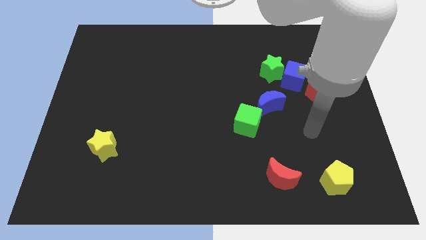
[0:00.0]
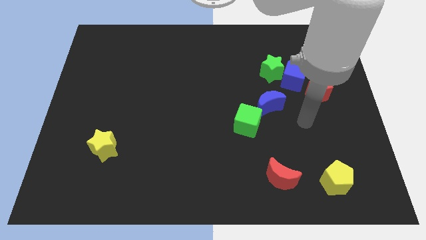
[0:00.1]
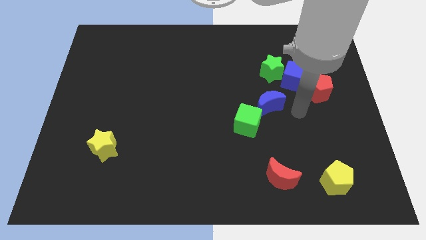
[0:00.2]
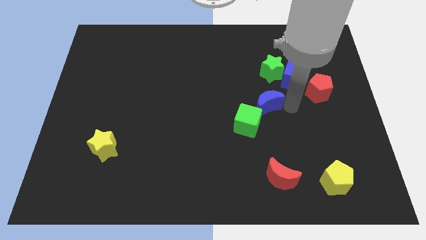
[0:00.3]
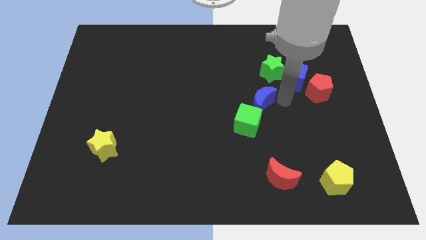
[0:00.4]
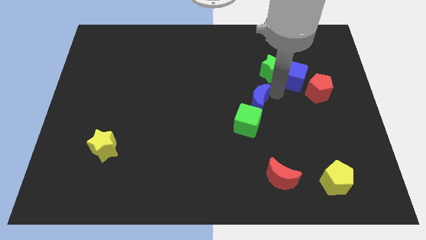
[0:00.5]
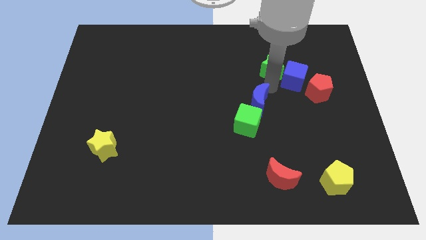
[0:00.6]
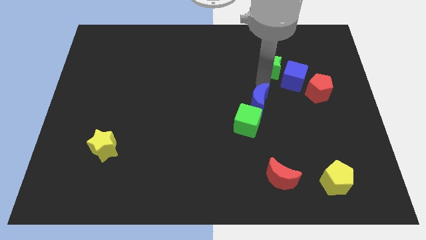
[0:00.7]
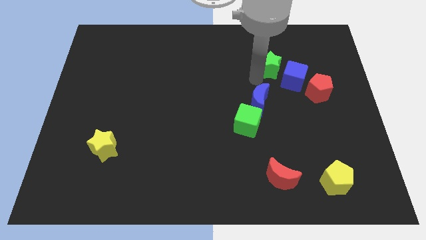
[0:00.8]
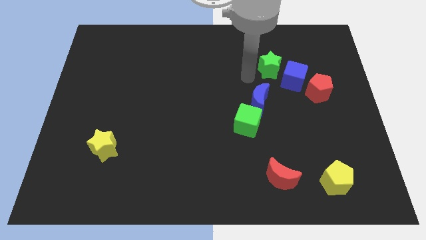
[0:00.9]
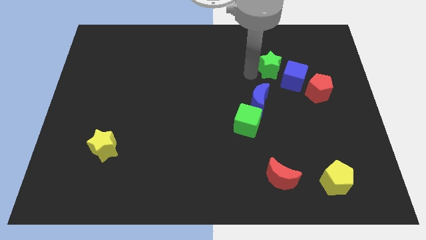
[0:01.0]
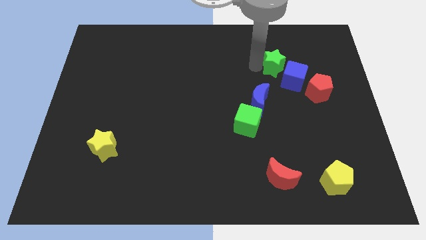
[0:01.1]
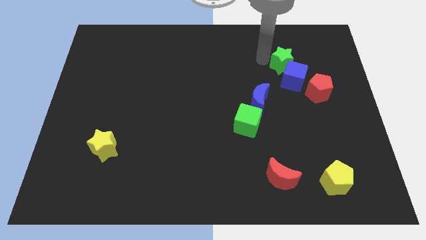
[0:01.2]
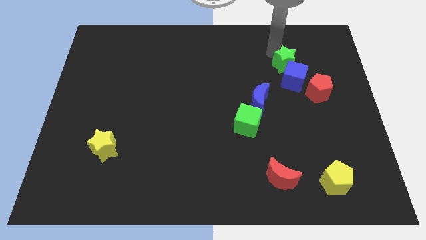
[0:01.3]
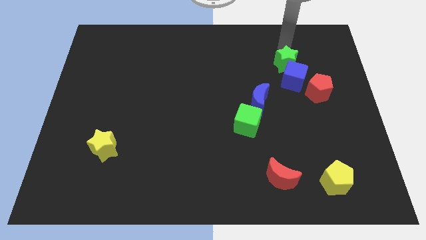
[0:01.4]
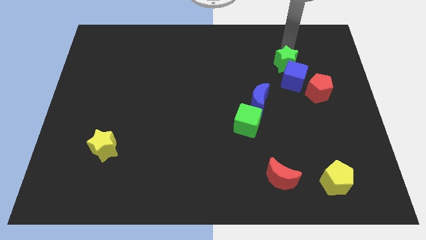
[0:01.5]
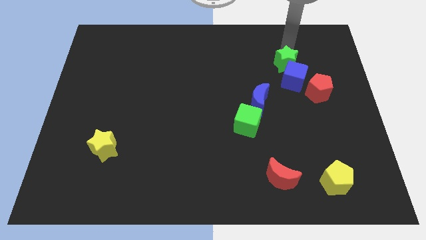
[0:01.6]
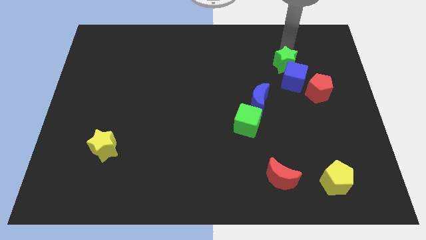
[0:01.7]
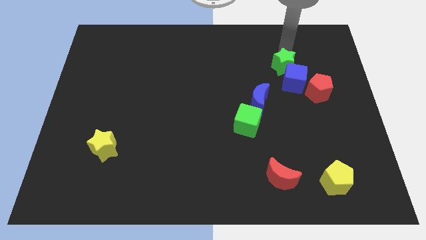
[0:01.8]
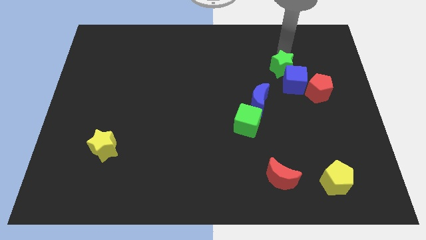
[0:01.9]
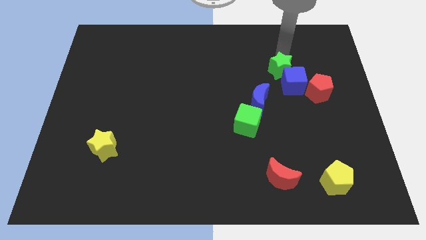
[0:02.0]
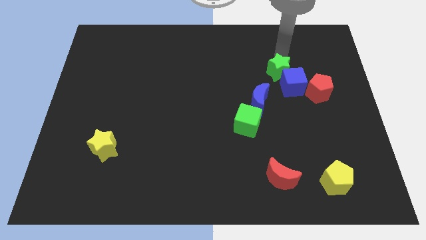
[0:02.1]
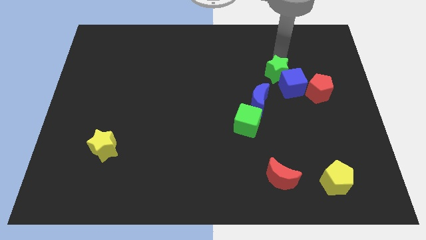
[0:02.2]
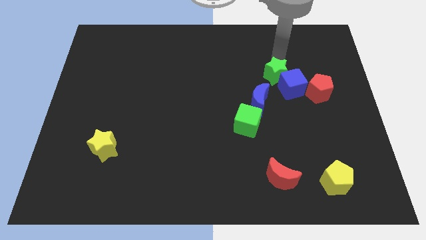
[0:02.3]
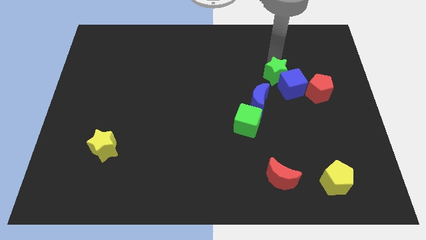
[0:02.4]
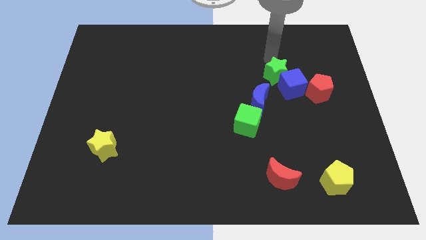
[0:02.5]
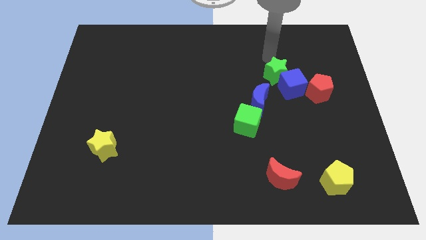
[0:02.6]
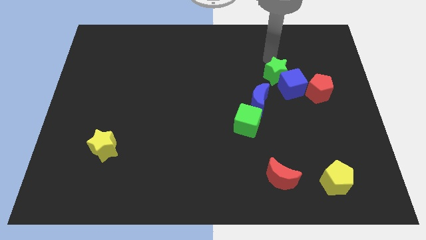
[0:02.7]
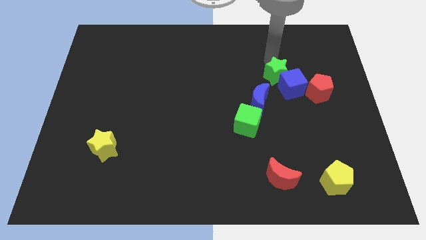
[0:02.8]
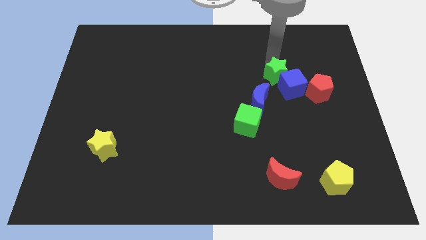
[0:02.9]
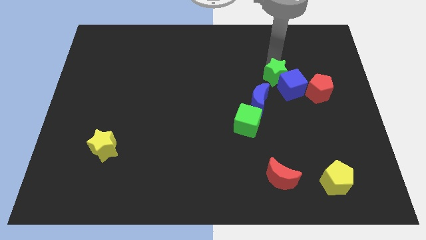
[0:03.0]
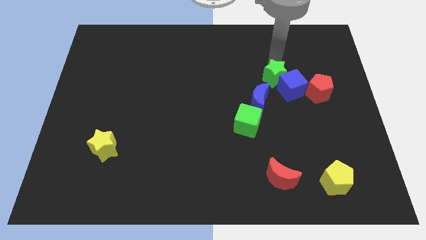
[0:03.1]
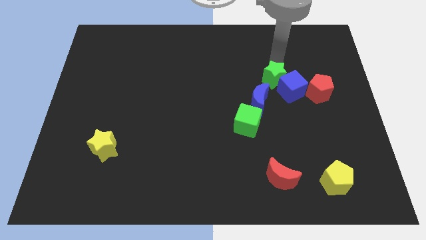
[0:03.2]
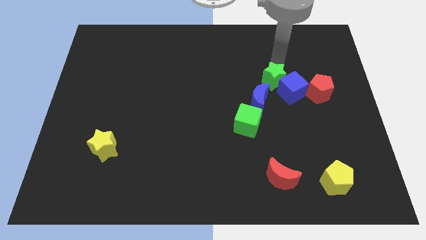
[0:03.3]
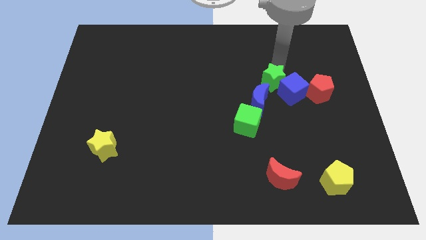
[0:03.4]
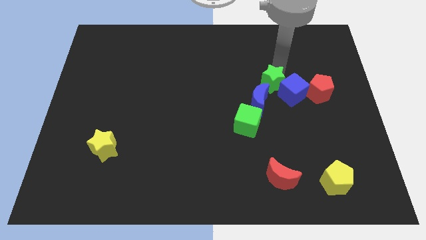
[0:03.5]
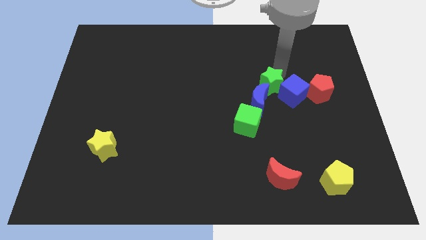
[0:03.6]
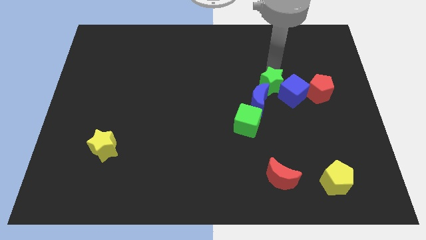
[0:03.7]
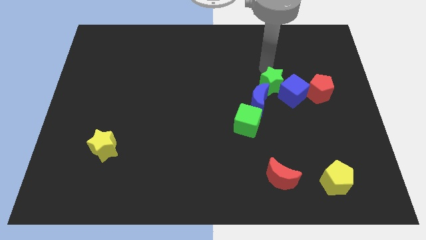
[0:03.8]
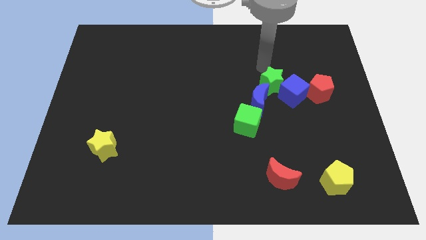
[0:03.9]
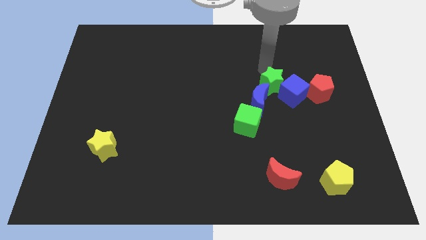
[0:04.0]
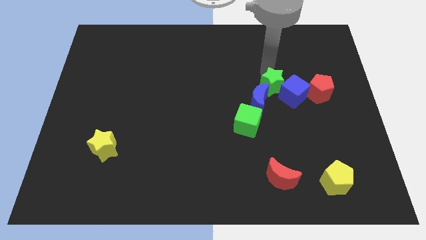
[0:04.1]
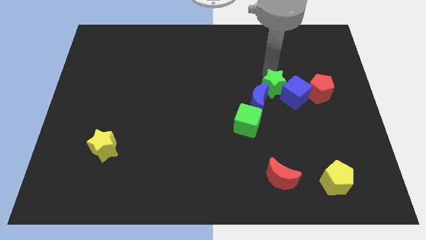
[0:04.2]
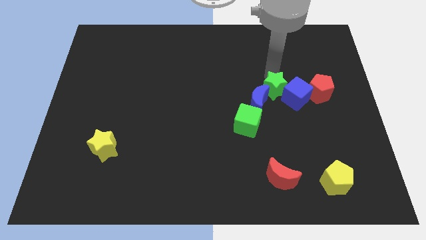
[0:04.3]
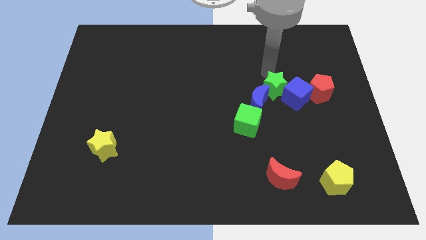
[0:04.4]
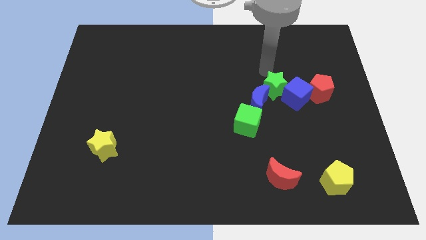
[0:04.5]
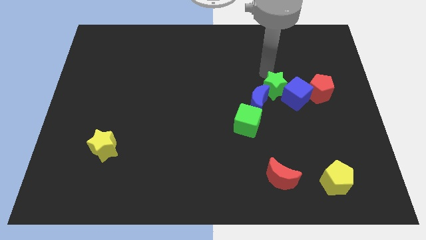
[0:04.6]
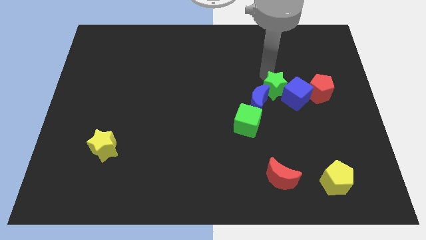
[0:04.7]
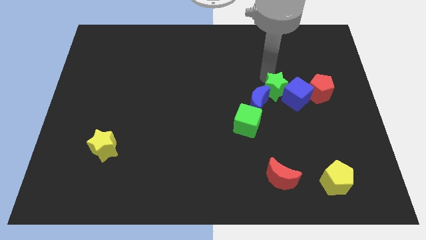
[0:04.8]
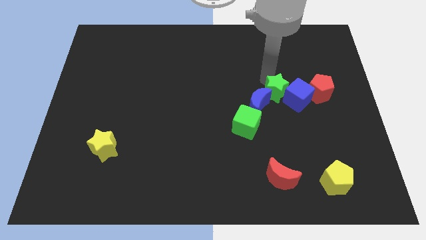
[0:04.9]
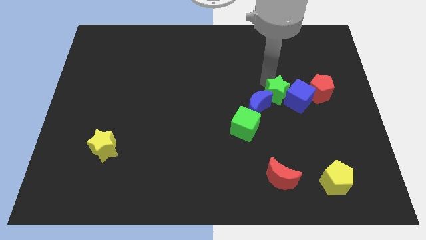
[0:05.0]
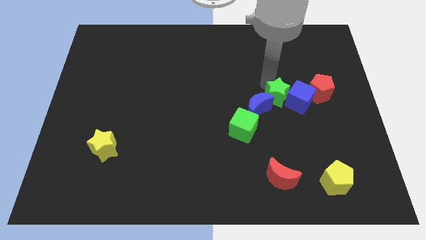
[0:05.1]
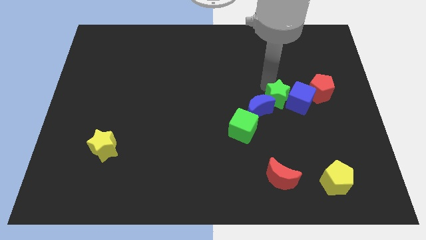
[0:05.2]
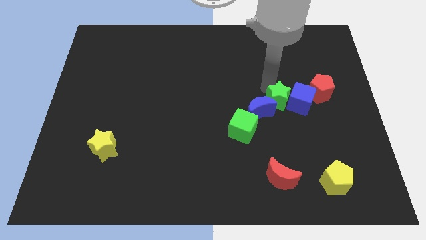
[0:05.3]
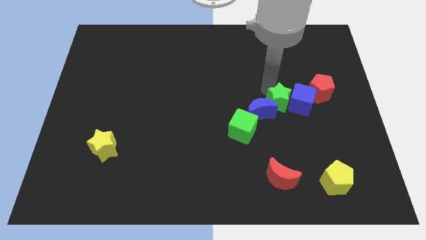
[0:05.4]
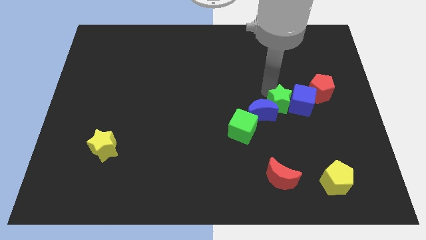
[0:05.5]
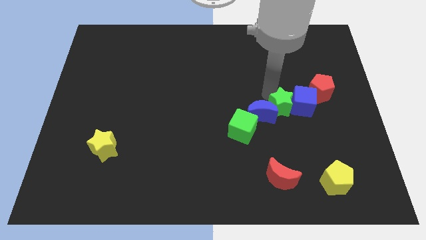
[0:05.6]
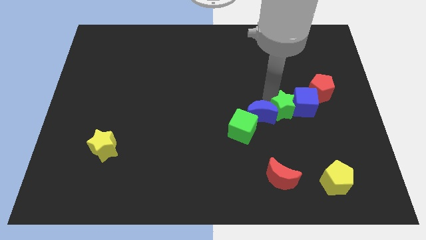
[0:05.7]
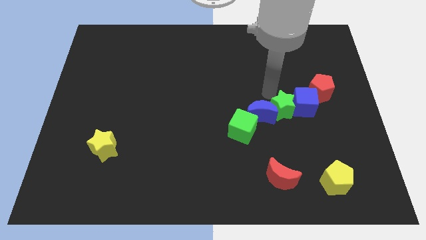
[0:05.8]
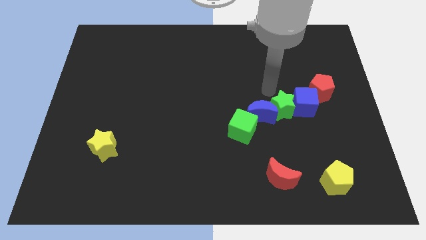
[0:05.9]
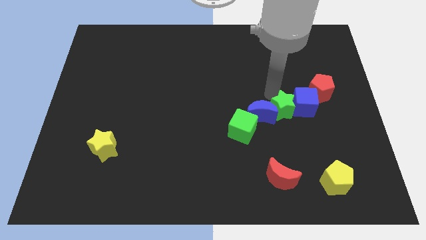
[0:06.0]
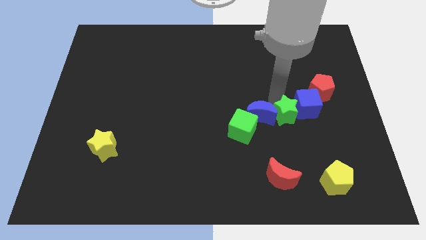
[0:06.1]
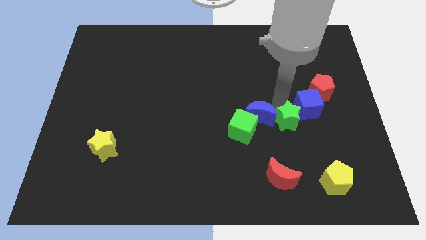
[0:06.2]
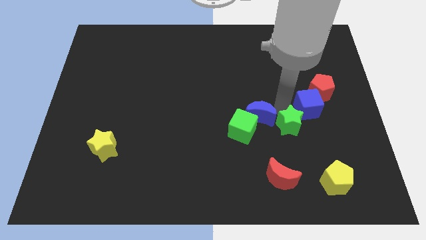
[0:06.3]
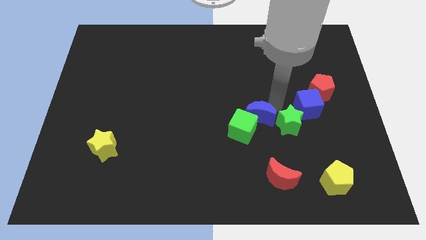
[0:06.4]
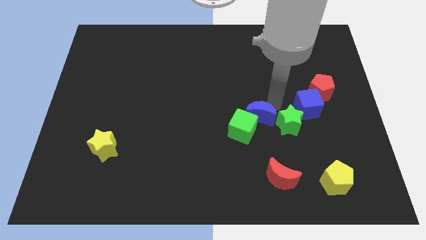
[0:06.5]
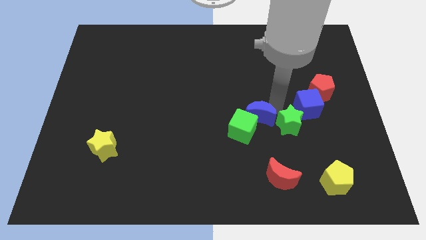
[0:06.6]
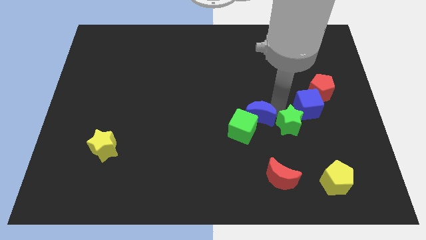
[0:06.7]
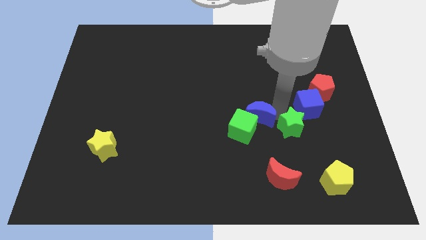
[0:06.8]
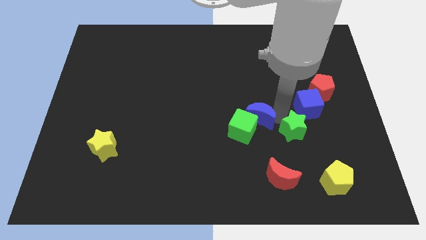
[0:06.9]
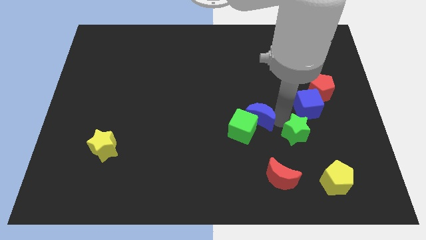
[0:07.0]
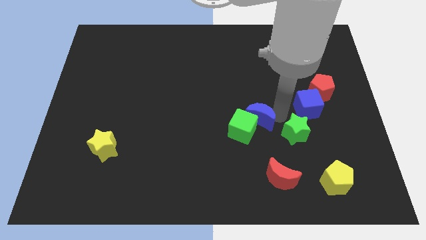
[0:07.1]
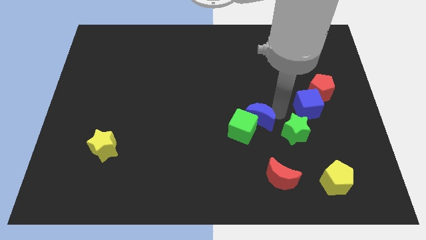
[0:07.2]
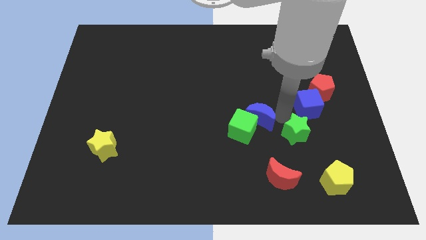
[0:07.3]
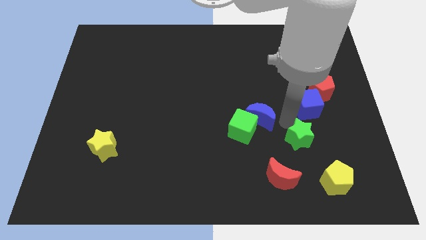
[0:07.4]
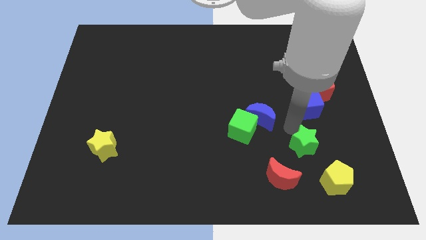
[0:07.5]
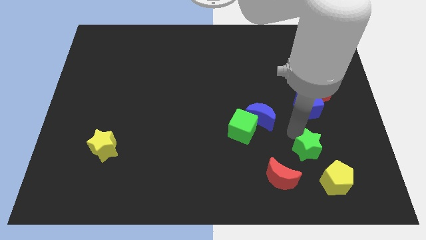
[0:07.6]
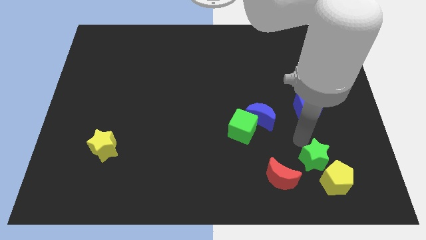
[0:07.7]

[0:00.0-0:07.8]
slide the green star to the yellow pentagon

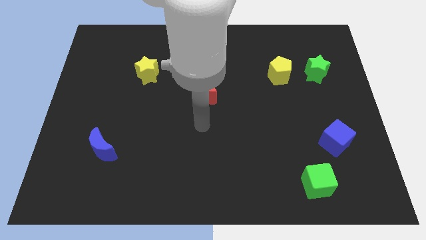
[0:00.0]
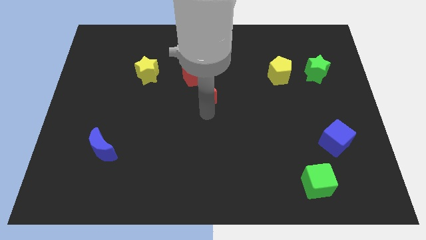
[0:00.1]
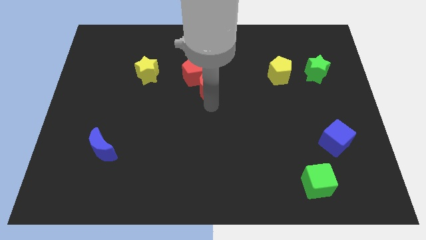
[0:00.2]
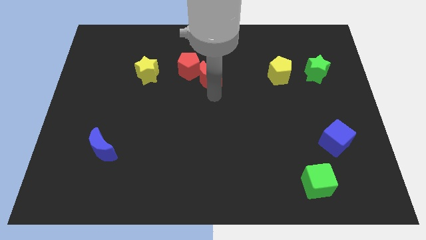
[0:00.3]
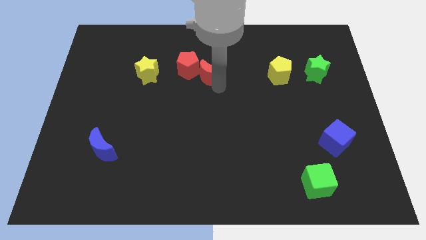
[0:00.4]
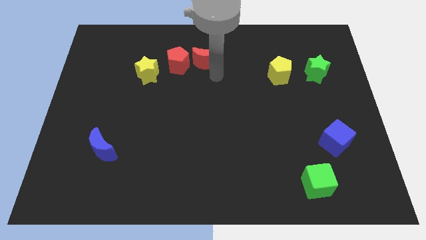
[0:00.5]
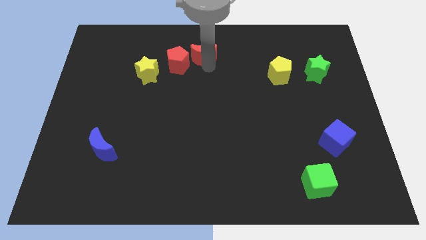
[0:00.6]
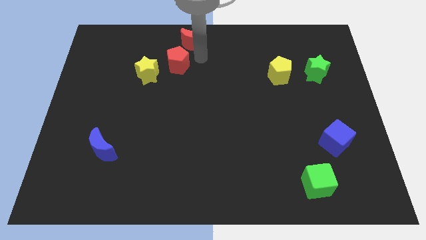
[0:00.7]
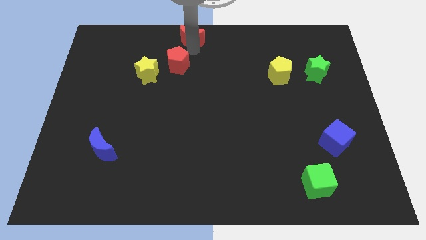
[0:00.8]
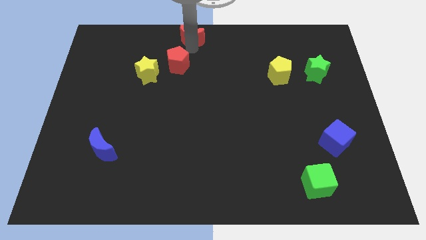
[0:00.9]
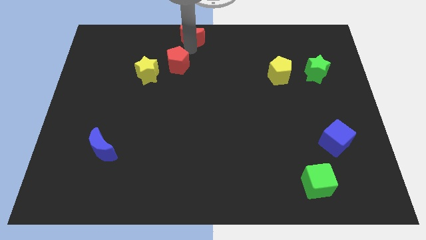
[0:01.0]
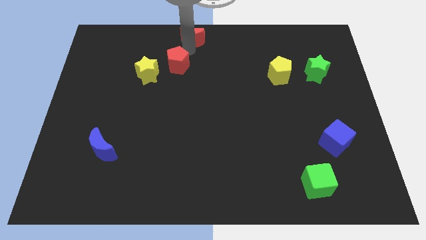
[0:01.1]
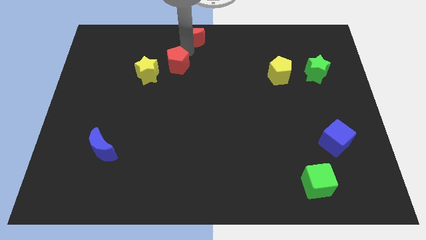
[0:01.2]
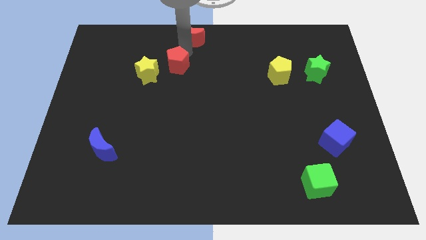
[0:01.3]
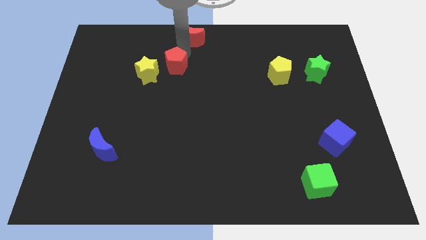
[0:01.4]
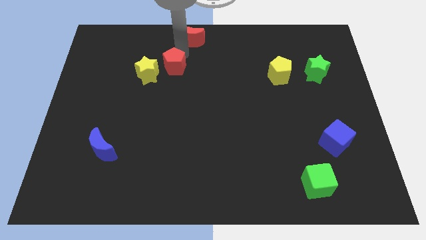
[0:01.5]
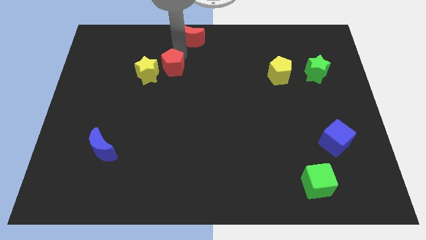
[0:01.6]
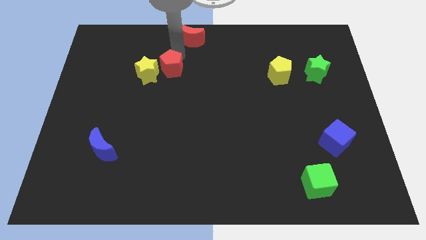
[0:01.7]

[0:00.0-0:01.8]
push the red pentagon towards the yellow star
